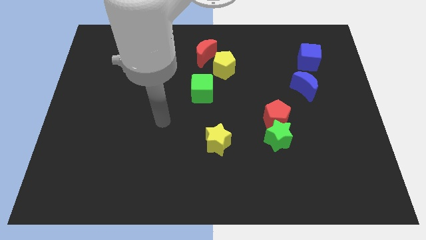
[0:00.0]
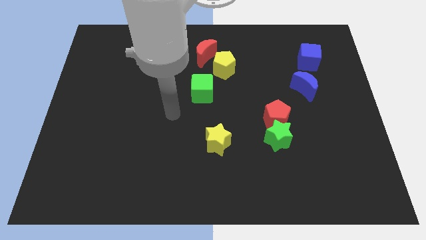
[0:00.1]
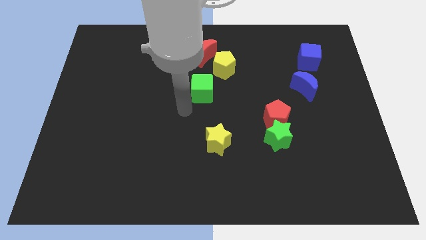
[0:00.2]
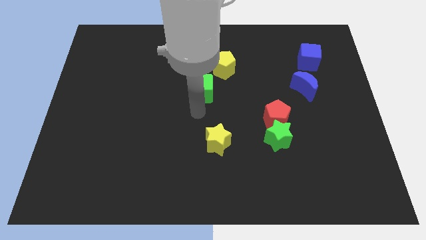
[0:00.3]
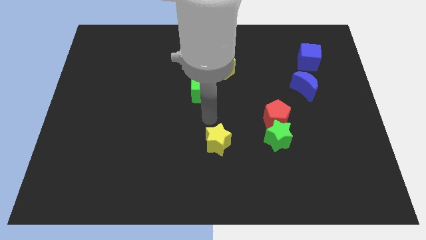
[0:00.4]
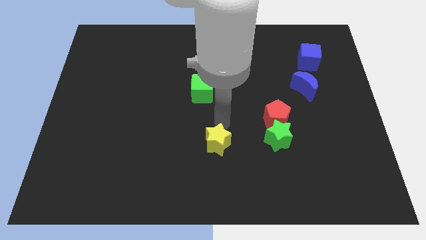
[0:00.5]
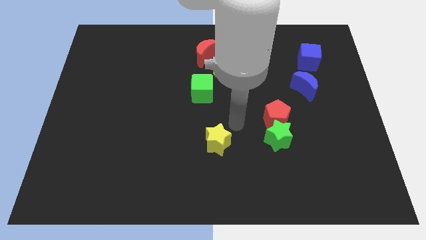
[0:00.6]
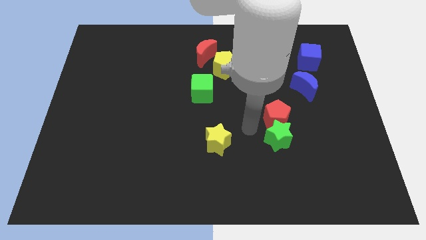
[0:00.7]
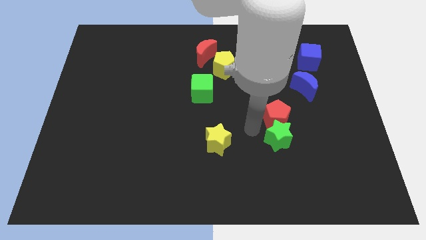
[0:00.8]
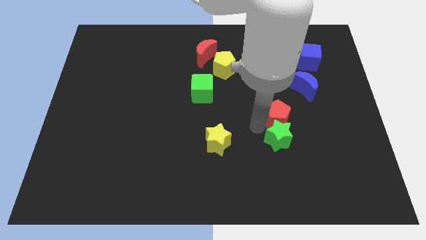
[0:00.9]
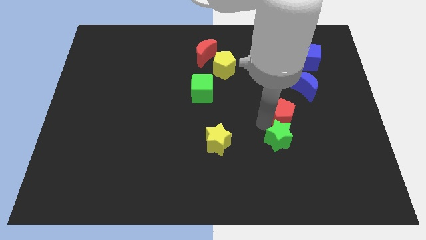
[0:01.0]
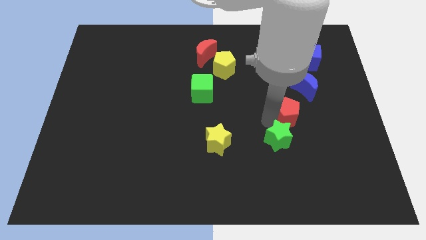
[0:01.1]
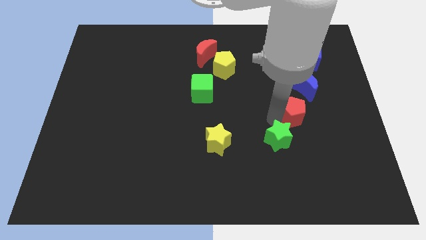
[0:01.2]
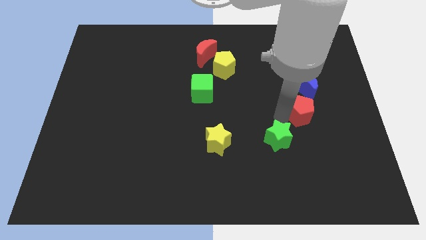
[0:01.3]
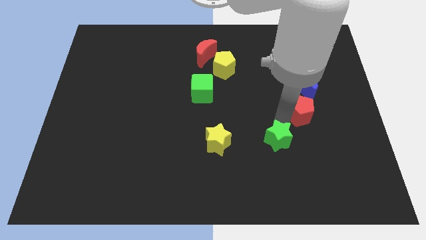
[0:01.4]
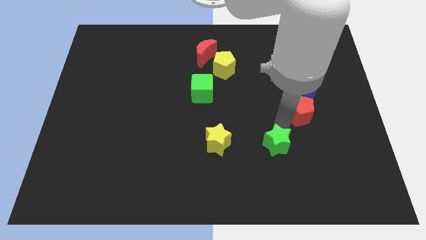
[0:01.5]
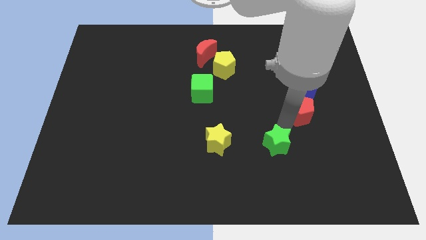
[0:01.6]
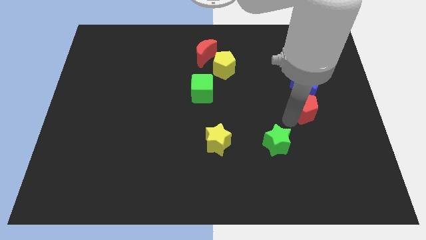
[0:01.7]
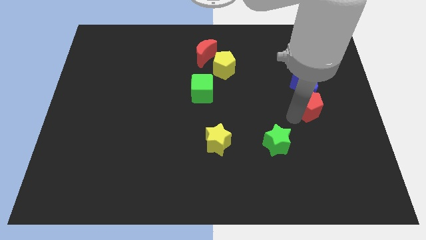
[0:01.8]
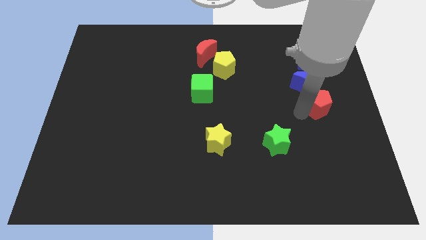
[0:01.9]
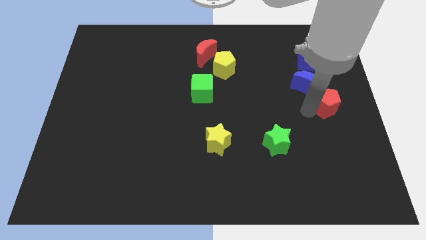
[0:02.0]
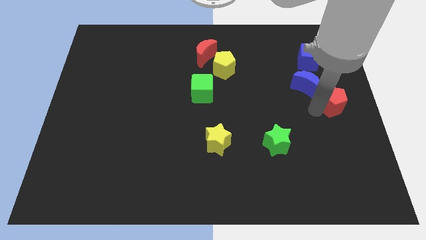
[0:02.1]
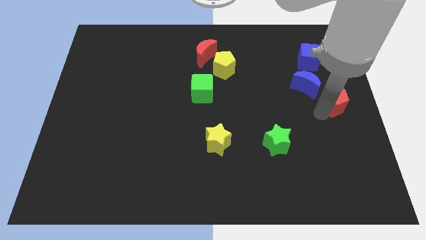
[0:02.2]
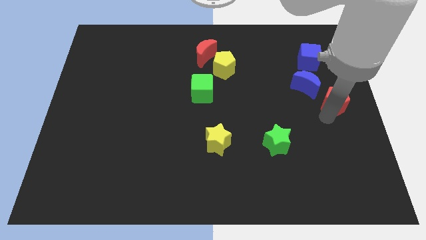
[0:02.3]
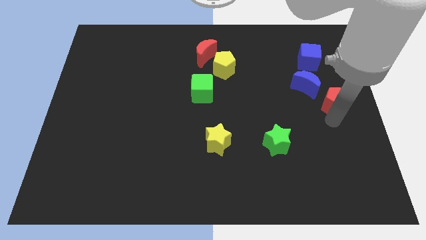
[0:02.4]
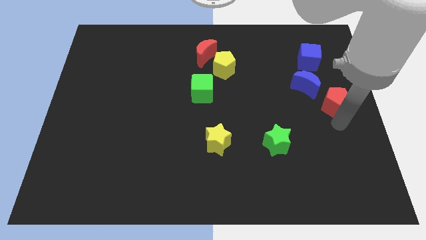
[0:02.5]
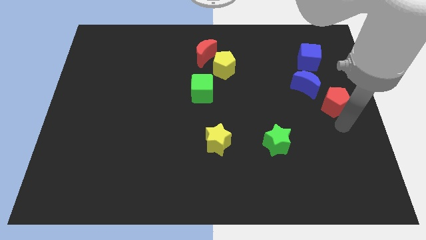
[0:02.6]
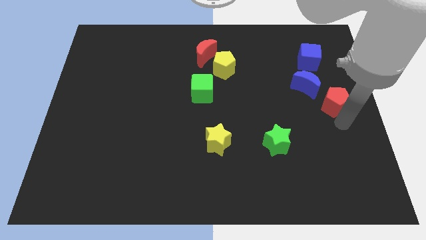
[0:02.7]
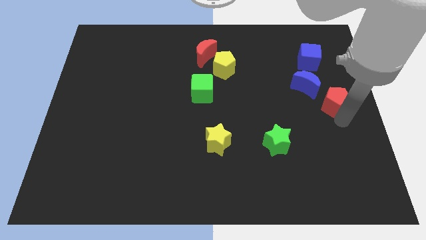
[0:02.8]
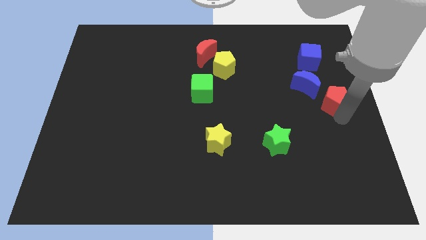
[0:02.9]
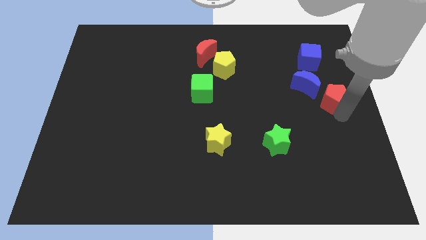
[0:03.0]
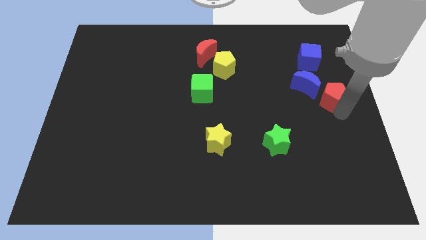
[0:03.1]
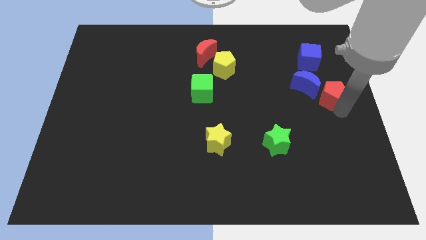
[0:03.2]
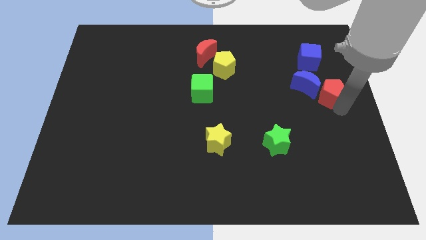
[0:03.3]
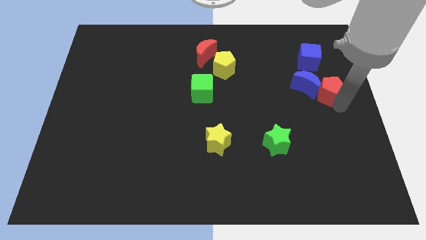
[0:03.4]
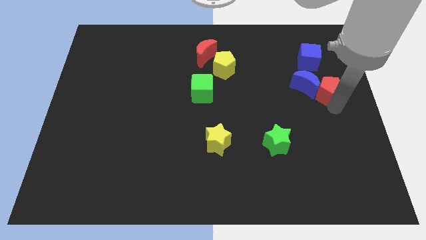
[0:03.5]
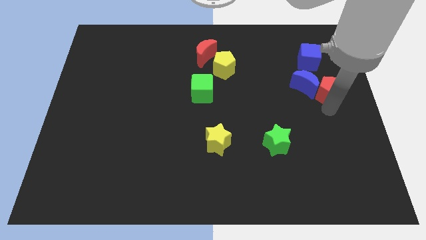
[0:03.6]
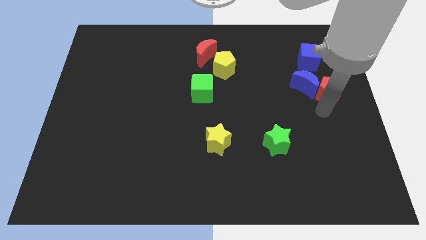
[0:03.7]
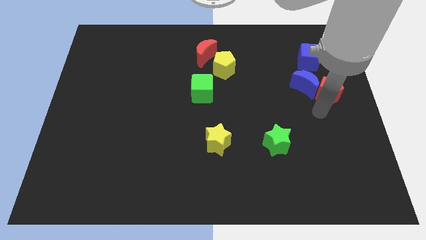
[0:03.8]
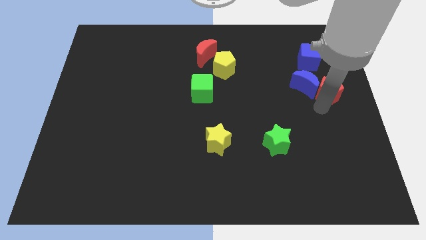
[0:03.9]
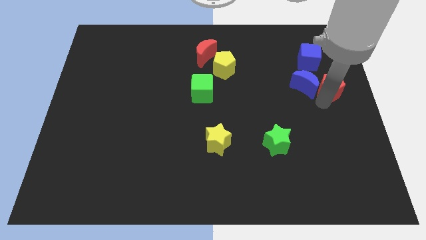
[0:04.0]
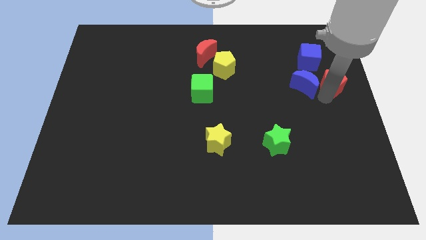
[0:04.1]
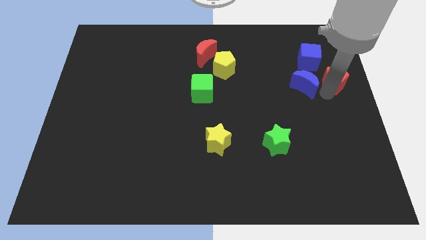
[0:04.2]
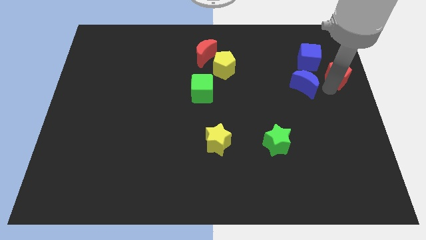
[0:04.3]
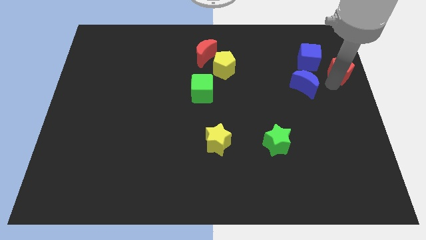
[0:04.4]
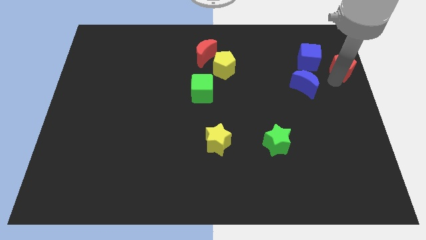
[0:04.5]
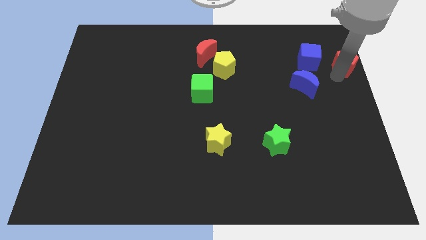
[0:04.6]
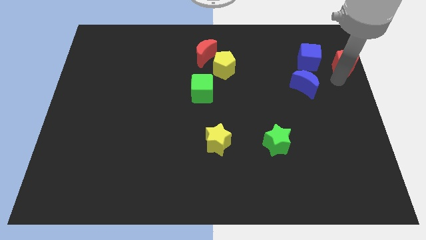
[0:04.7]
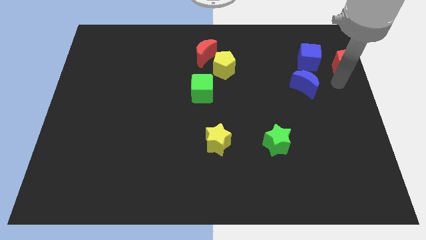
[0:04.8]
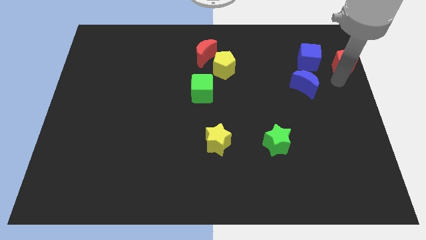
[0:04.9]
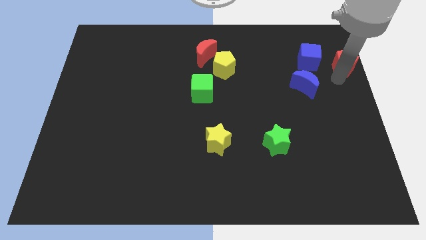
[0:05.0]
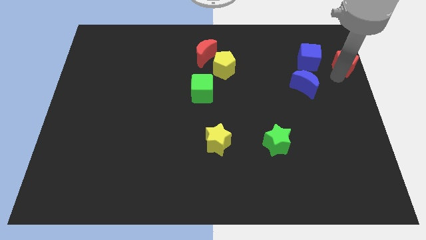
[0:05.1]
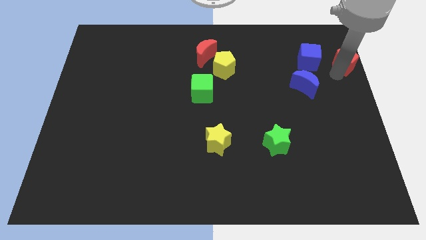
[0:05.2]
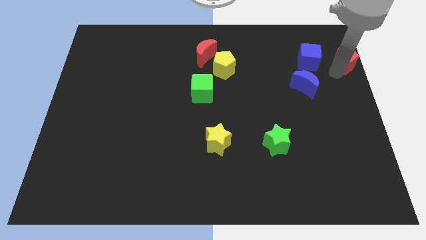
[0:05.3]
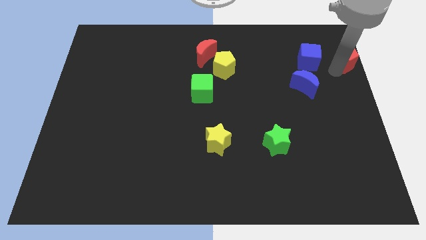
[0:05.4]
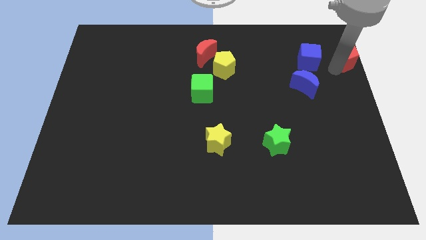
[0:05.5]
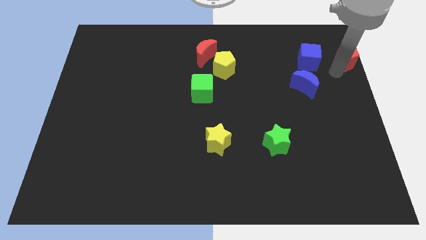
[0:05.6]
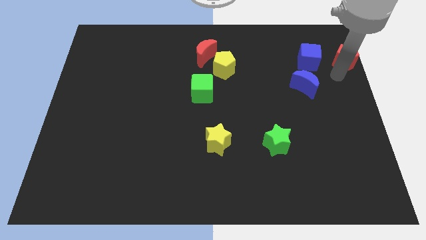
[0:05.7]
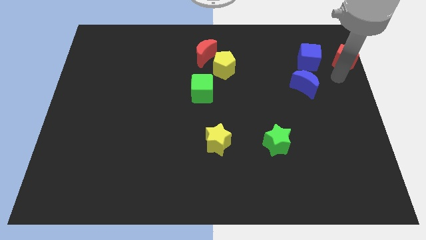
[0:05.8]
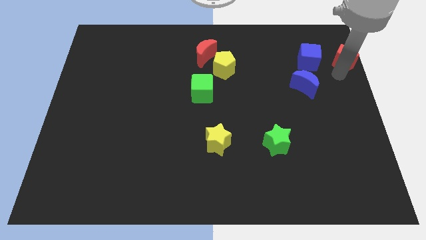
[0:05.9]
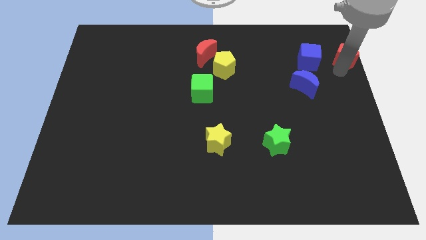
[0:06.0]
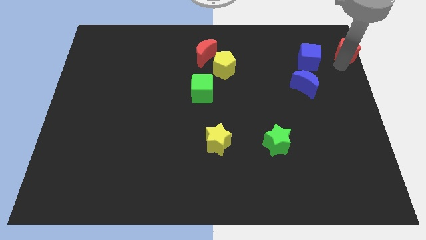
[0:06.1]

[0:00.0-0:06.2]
put the red pentagon to the top right corner

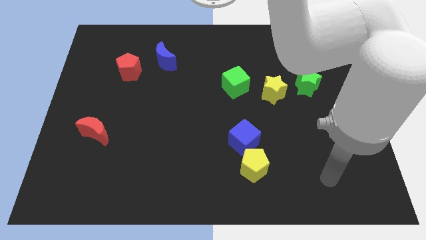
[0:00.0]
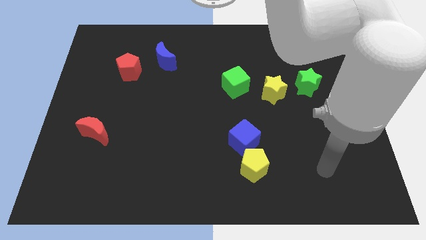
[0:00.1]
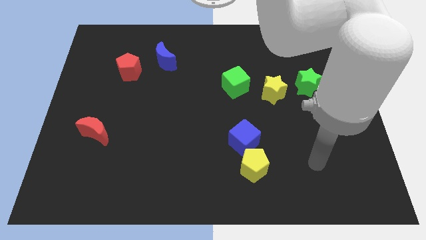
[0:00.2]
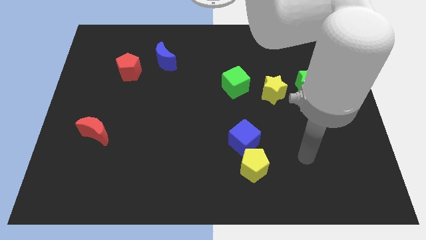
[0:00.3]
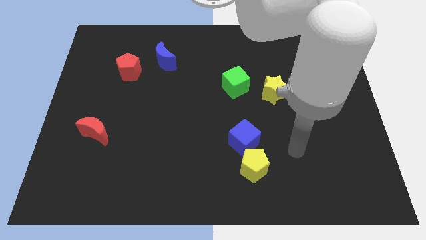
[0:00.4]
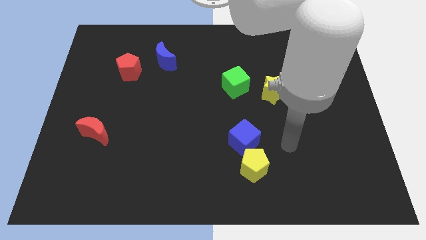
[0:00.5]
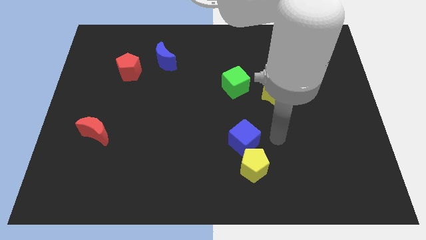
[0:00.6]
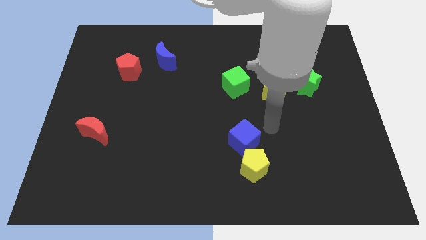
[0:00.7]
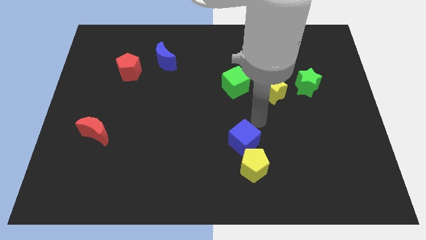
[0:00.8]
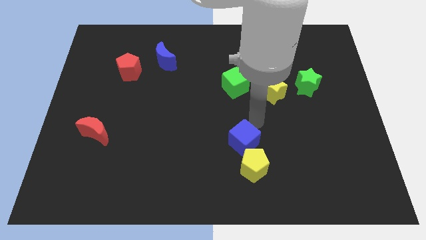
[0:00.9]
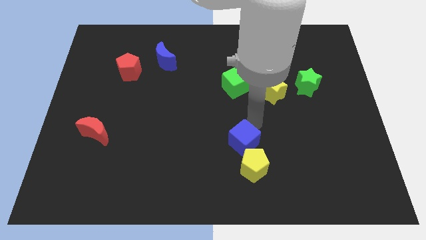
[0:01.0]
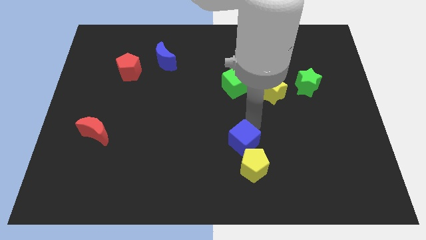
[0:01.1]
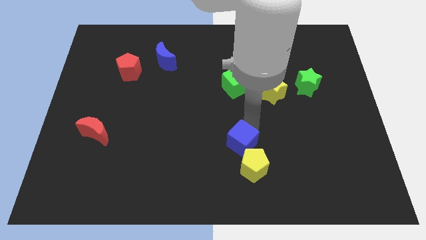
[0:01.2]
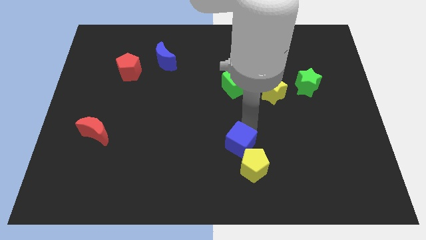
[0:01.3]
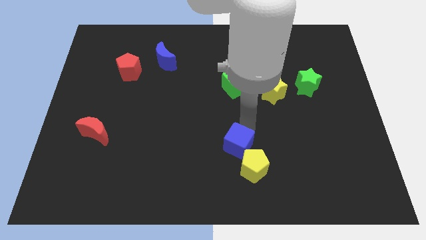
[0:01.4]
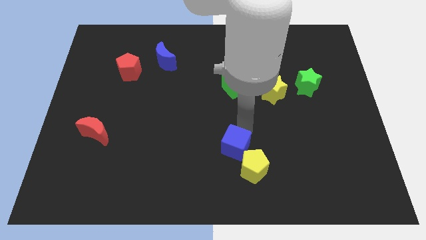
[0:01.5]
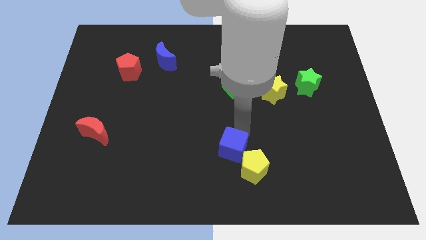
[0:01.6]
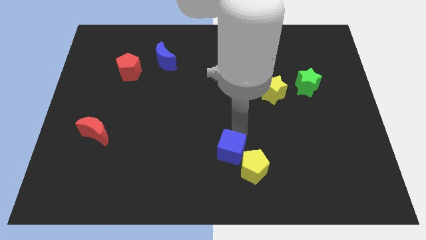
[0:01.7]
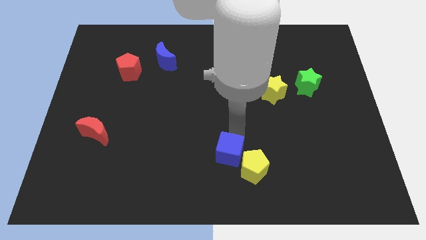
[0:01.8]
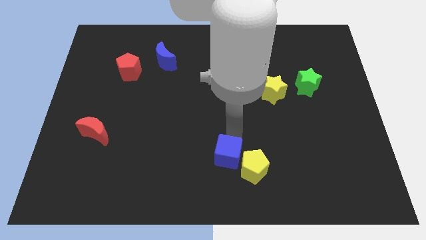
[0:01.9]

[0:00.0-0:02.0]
slide the blue cube to the bottom side
